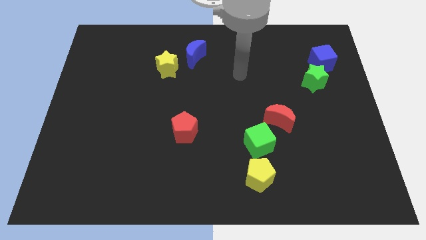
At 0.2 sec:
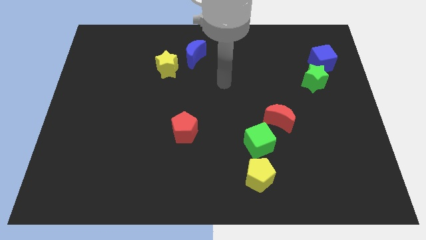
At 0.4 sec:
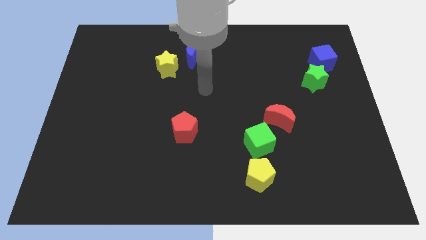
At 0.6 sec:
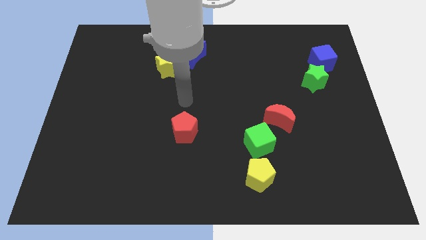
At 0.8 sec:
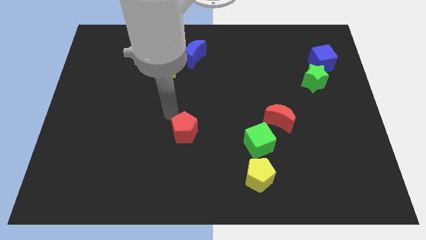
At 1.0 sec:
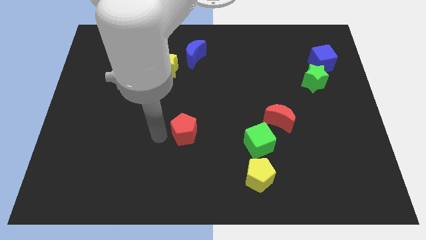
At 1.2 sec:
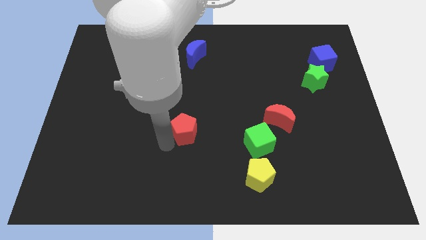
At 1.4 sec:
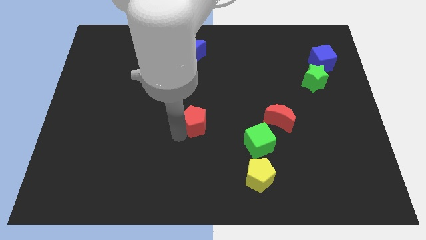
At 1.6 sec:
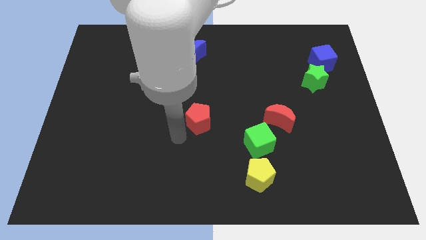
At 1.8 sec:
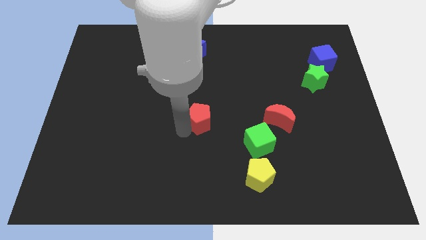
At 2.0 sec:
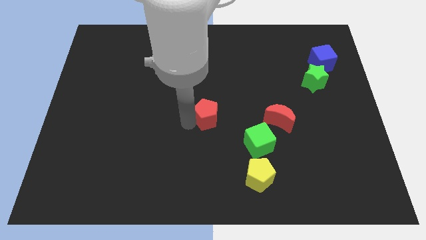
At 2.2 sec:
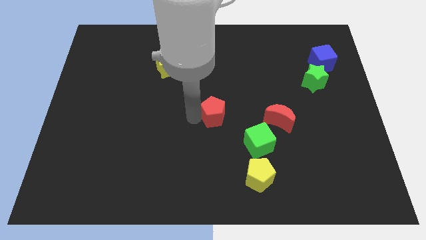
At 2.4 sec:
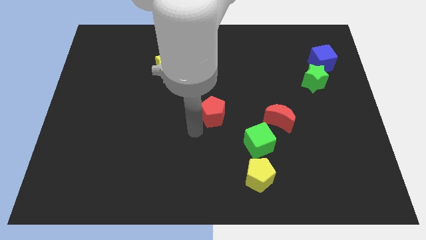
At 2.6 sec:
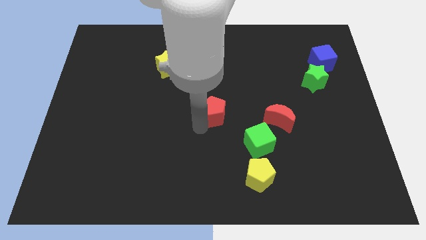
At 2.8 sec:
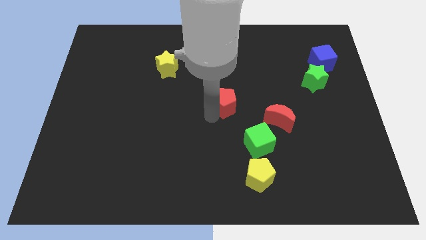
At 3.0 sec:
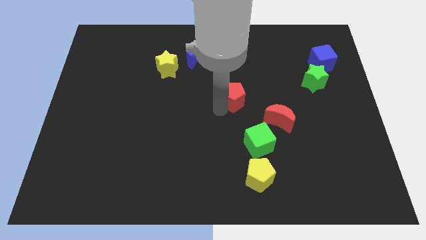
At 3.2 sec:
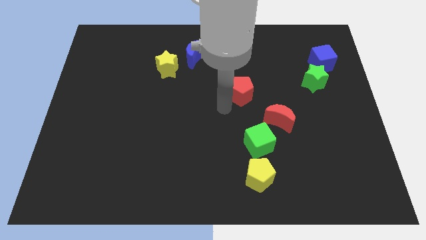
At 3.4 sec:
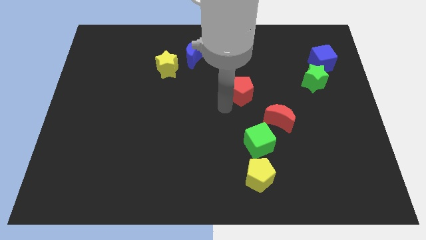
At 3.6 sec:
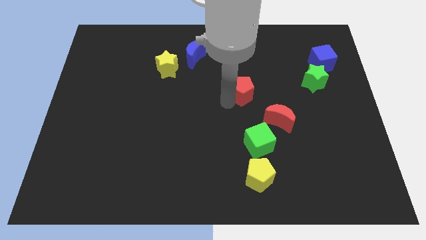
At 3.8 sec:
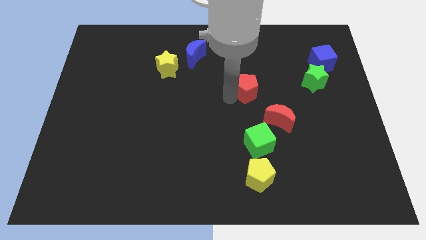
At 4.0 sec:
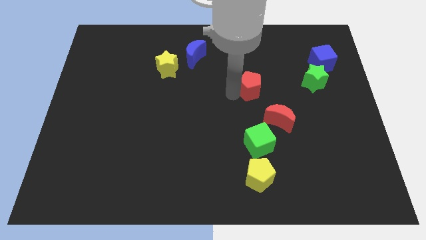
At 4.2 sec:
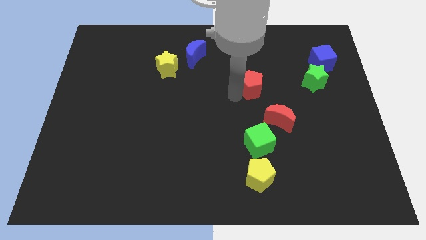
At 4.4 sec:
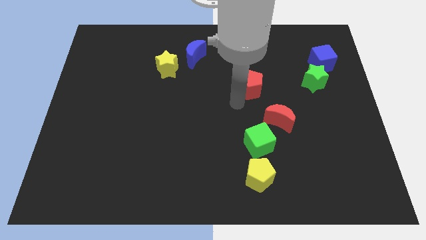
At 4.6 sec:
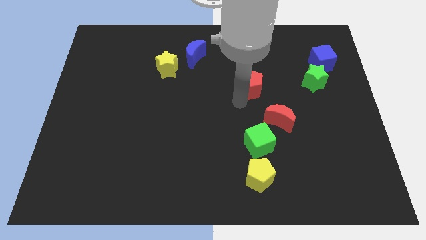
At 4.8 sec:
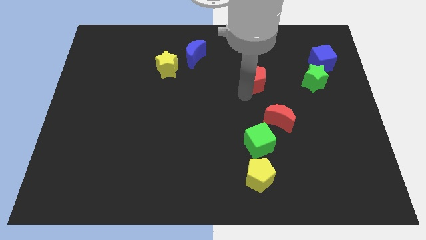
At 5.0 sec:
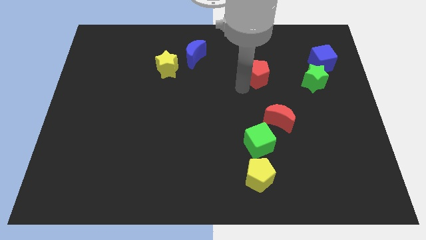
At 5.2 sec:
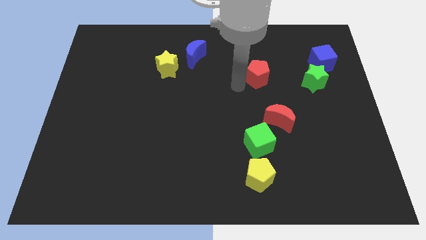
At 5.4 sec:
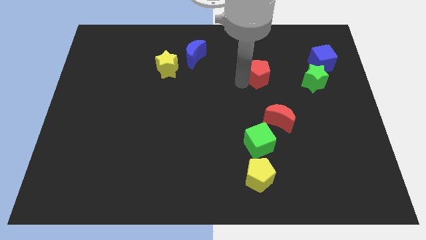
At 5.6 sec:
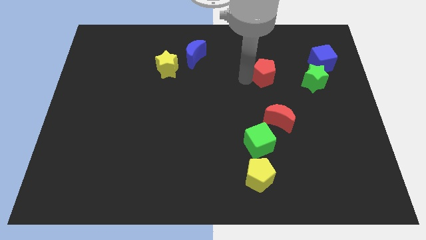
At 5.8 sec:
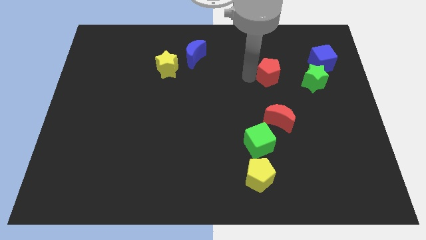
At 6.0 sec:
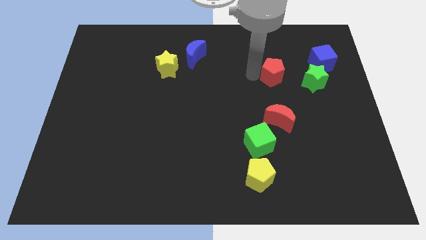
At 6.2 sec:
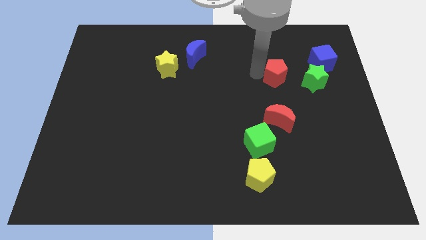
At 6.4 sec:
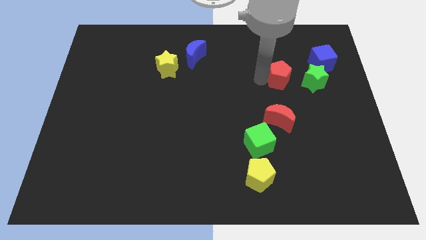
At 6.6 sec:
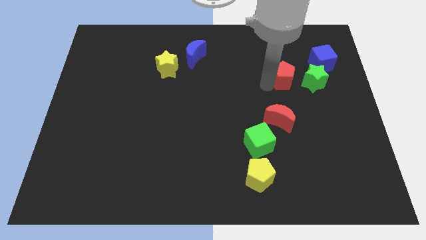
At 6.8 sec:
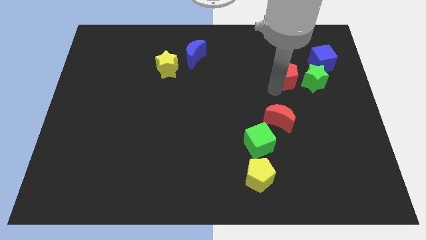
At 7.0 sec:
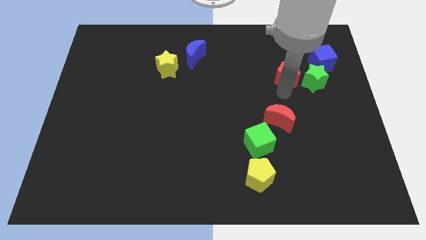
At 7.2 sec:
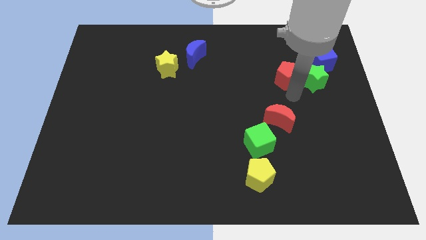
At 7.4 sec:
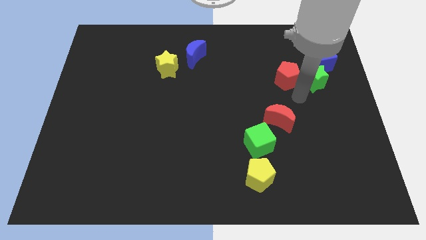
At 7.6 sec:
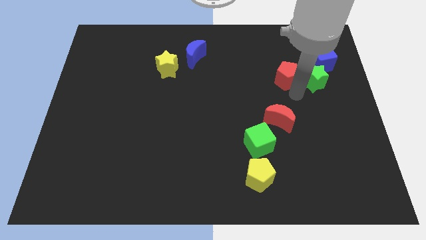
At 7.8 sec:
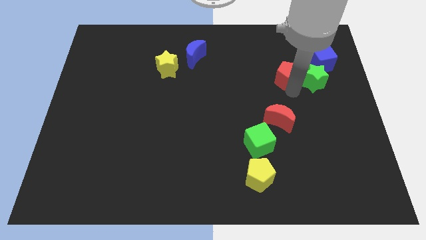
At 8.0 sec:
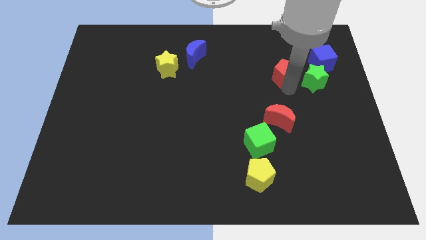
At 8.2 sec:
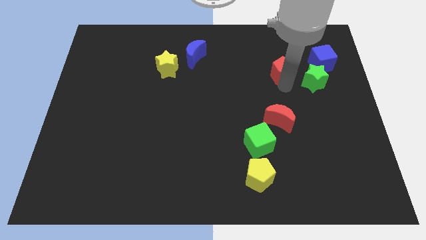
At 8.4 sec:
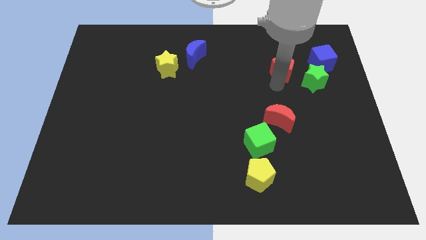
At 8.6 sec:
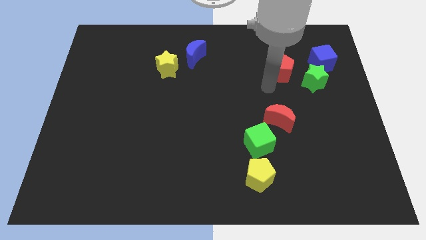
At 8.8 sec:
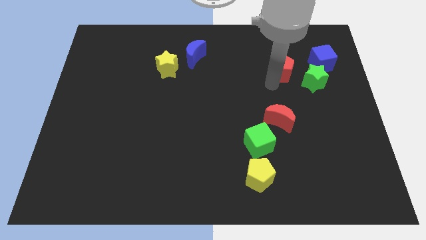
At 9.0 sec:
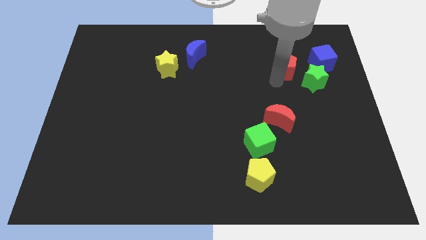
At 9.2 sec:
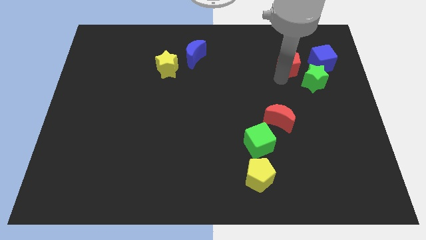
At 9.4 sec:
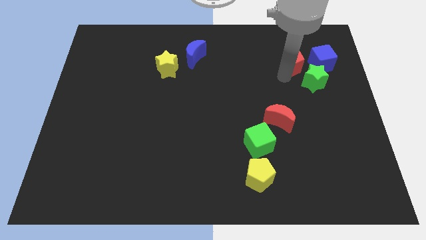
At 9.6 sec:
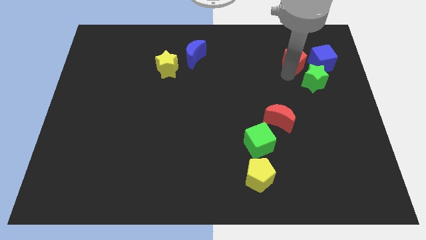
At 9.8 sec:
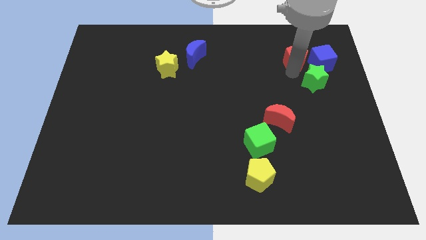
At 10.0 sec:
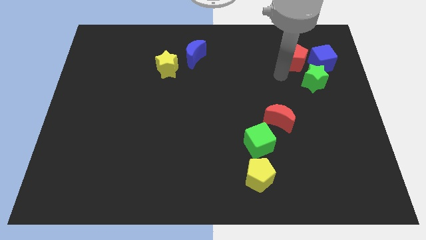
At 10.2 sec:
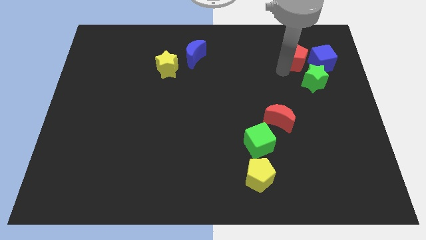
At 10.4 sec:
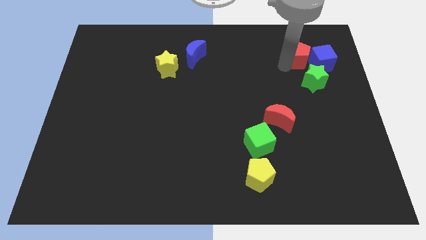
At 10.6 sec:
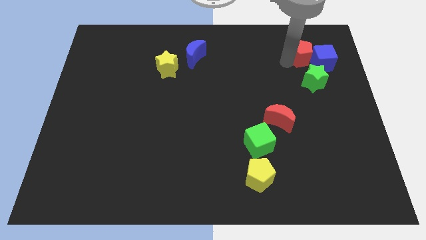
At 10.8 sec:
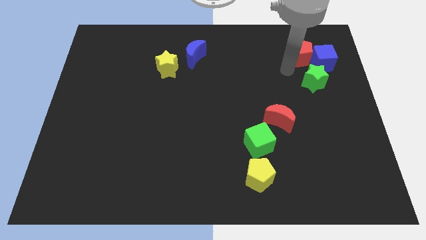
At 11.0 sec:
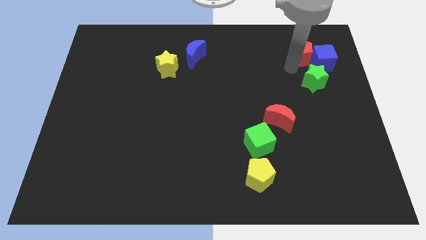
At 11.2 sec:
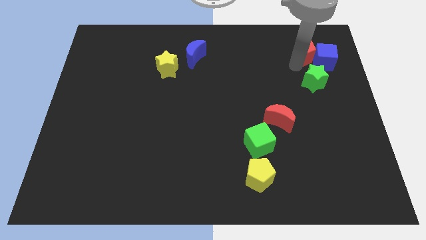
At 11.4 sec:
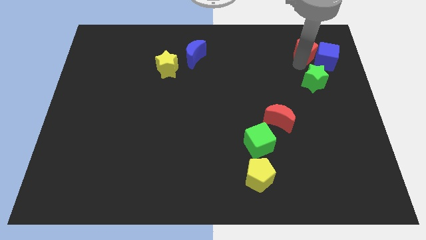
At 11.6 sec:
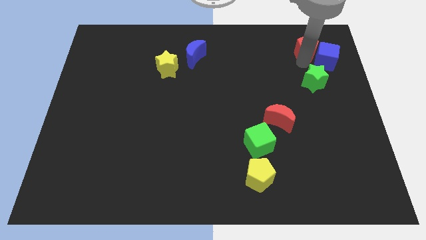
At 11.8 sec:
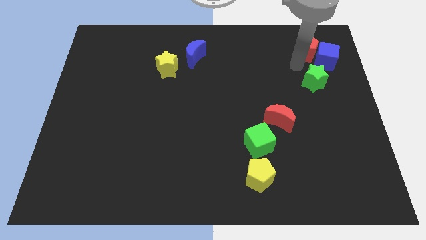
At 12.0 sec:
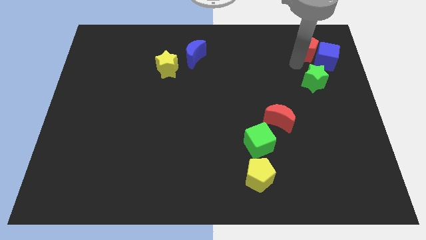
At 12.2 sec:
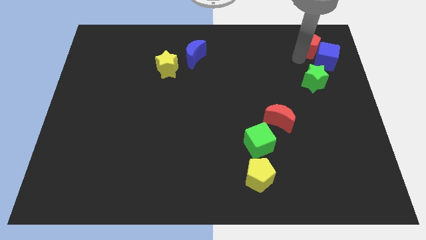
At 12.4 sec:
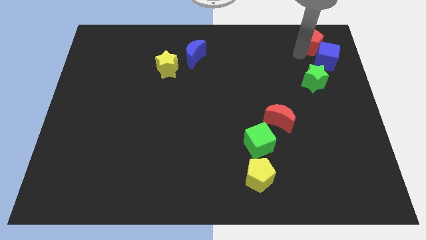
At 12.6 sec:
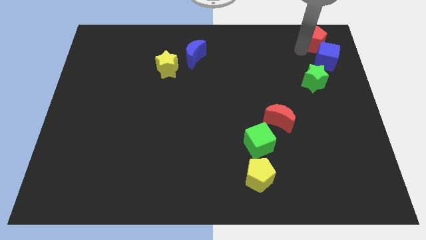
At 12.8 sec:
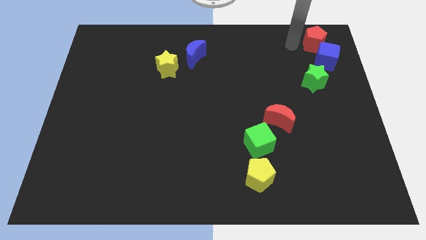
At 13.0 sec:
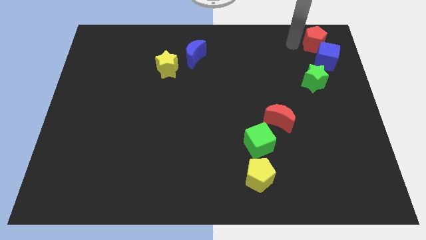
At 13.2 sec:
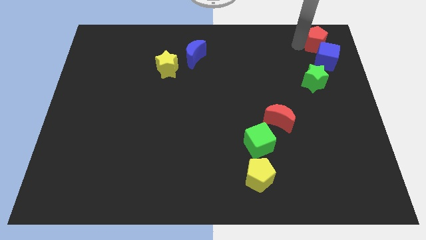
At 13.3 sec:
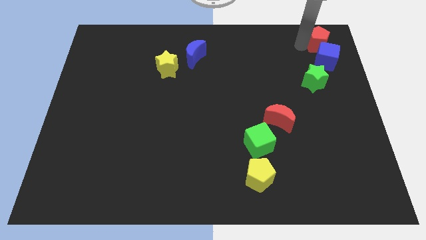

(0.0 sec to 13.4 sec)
move the red pentagon to the top right
